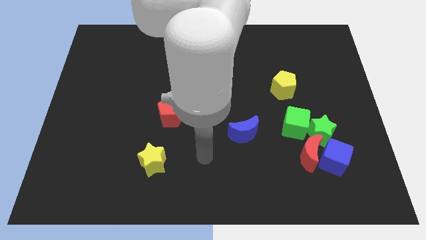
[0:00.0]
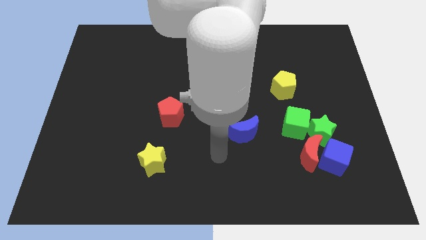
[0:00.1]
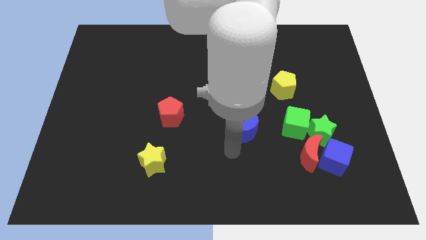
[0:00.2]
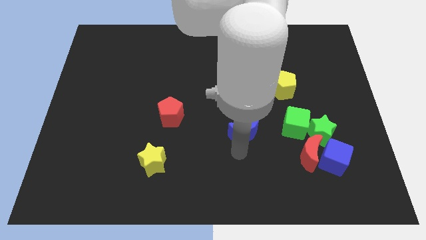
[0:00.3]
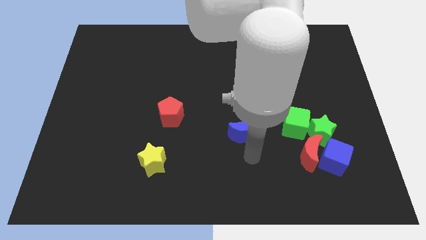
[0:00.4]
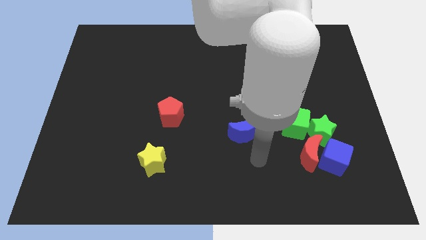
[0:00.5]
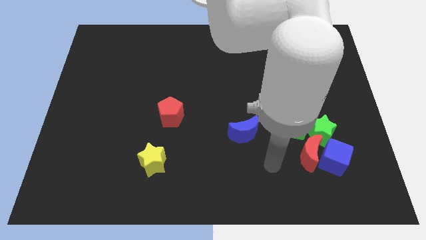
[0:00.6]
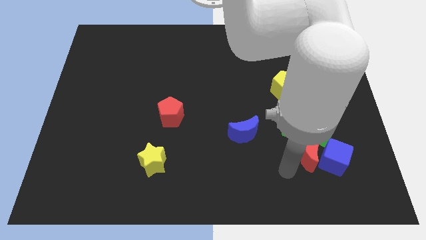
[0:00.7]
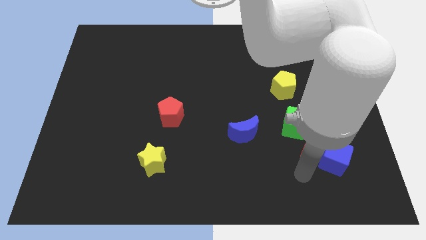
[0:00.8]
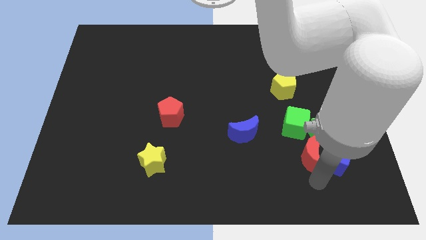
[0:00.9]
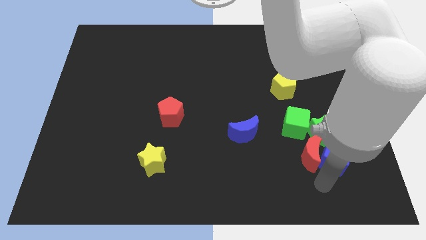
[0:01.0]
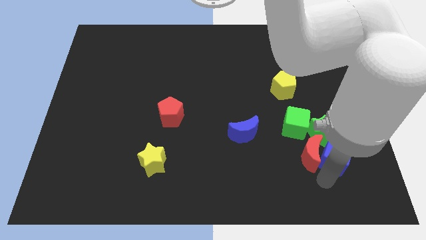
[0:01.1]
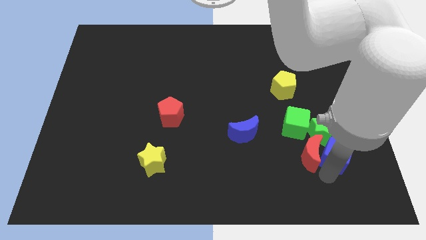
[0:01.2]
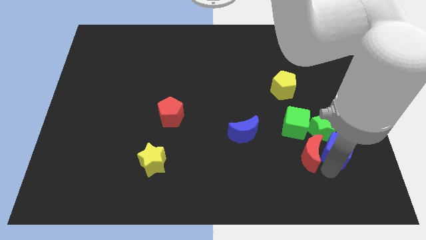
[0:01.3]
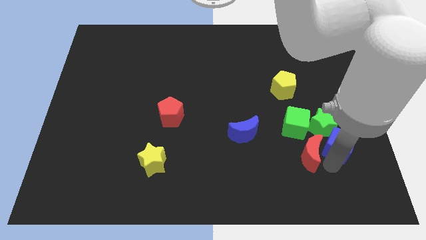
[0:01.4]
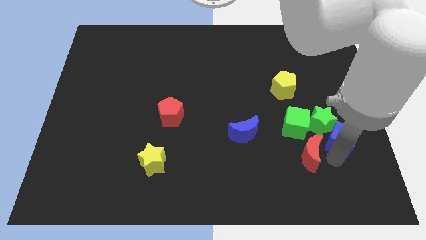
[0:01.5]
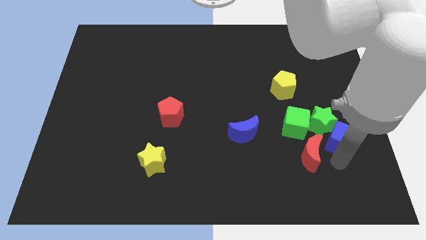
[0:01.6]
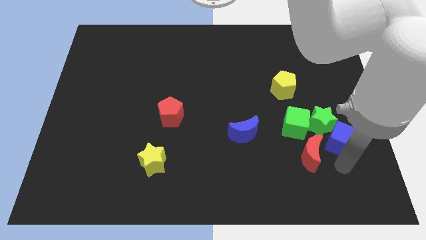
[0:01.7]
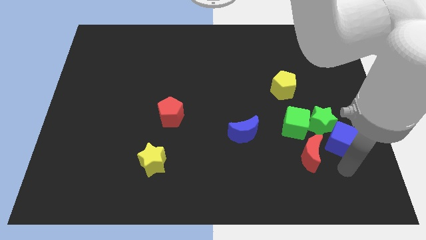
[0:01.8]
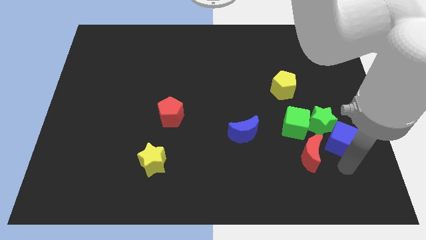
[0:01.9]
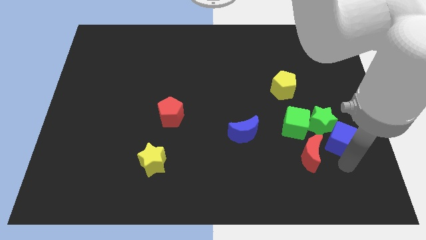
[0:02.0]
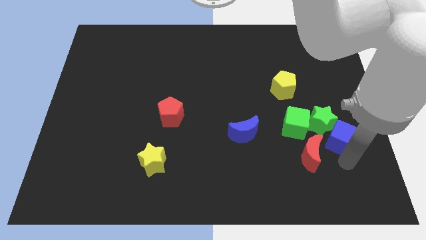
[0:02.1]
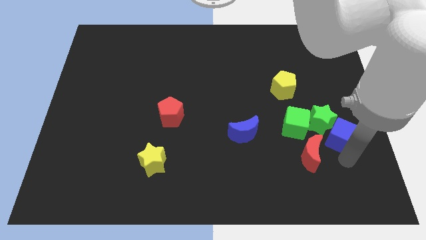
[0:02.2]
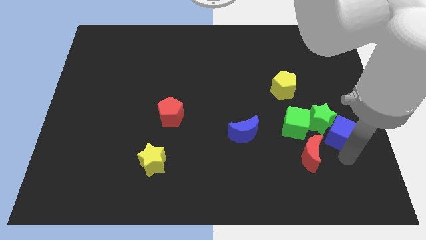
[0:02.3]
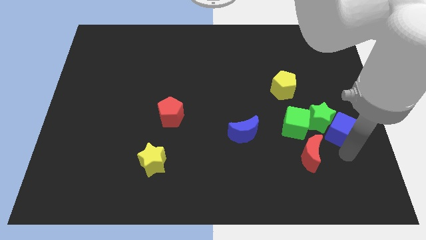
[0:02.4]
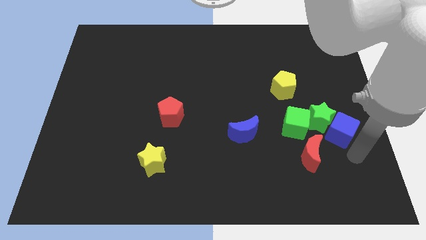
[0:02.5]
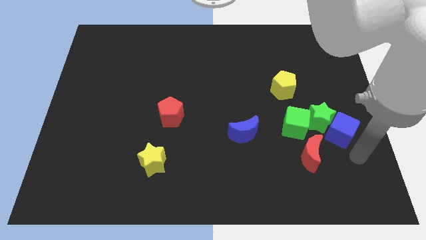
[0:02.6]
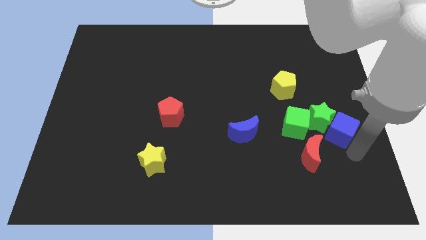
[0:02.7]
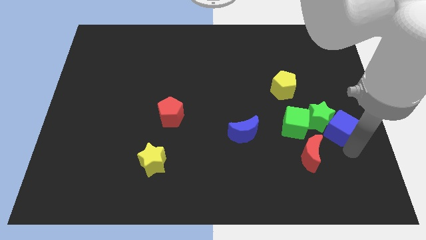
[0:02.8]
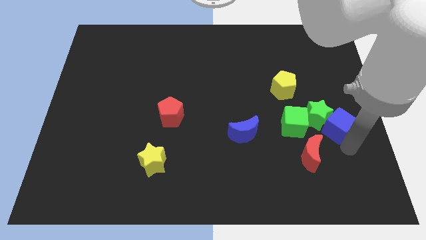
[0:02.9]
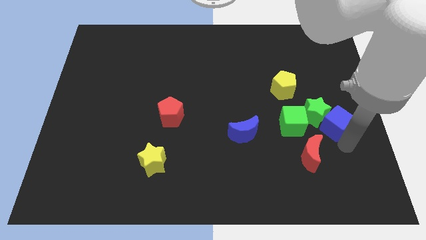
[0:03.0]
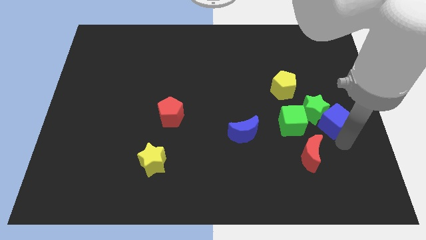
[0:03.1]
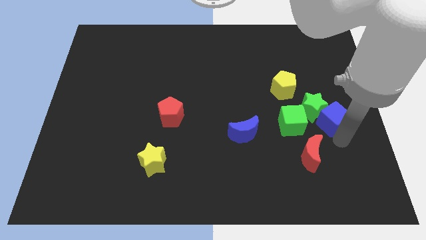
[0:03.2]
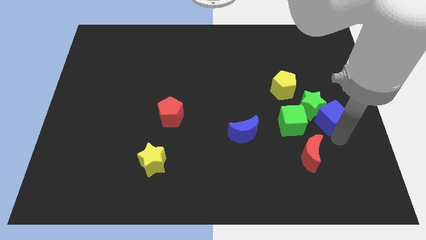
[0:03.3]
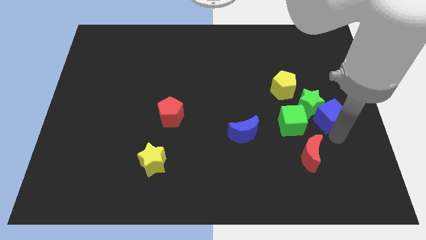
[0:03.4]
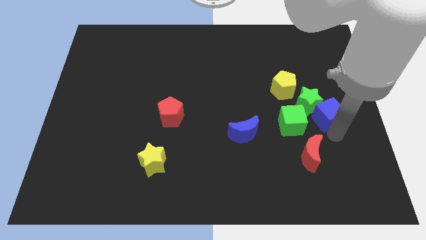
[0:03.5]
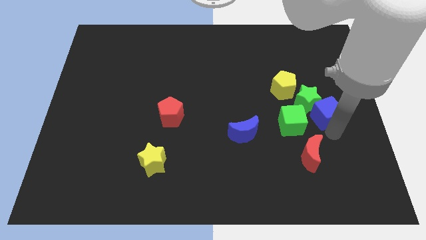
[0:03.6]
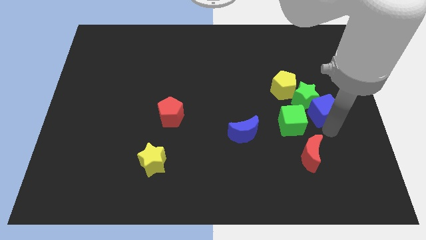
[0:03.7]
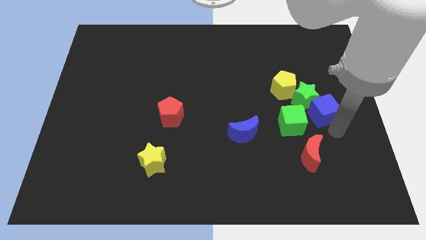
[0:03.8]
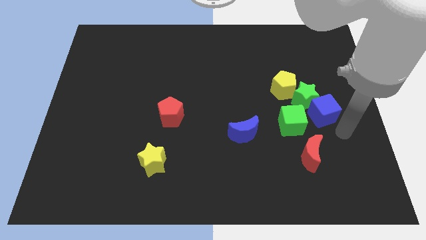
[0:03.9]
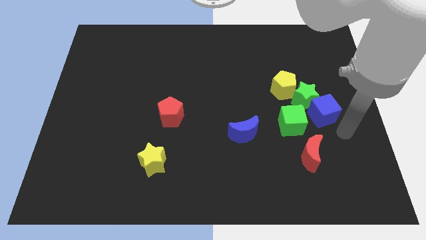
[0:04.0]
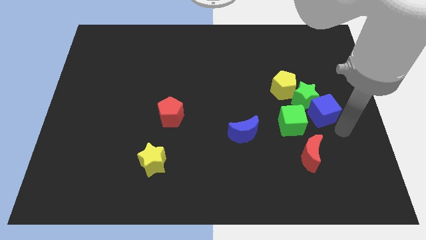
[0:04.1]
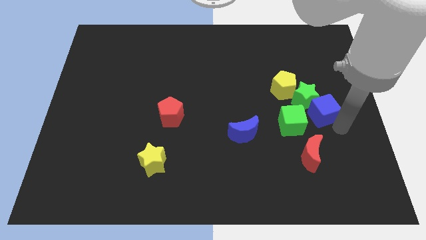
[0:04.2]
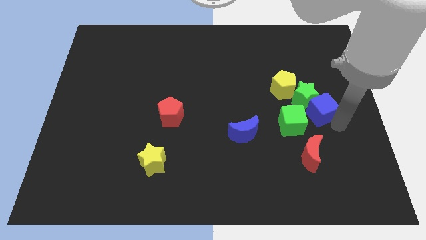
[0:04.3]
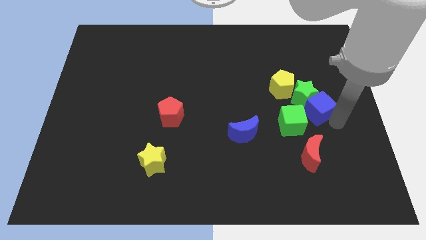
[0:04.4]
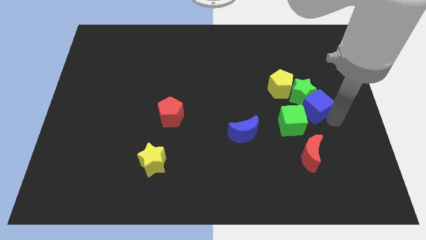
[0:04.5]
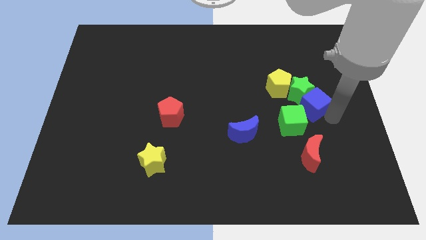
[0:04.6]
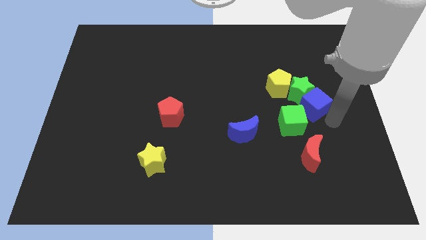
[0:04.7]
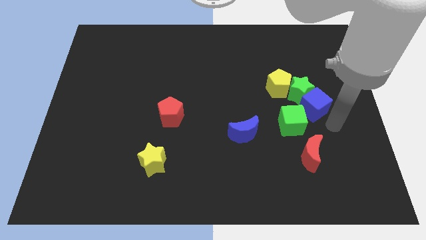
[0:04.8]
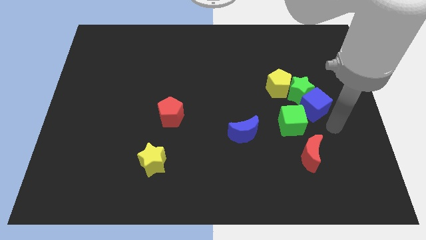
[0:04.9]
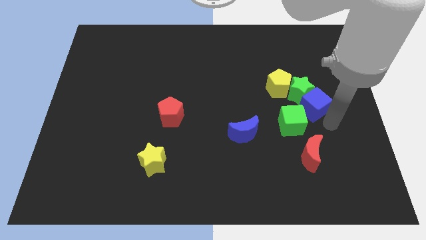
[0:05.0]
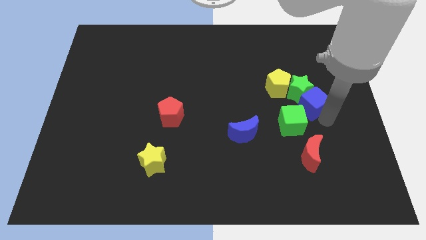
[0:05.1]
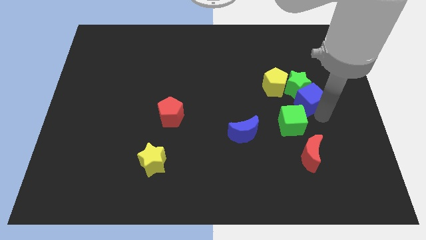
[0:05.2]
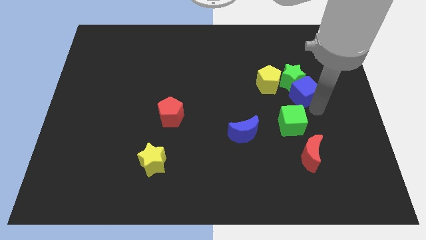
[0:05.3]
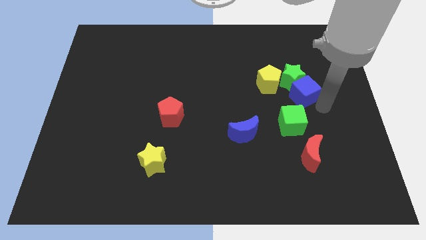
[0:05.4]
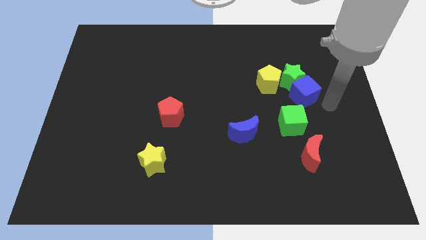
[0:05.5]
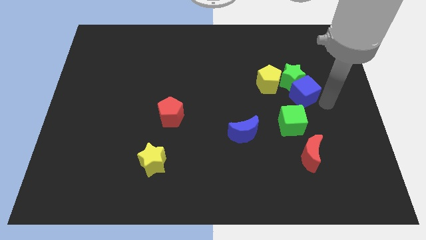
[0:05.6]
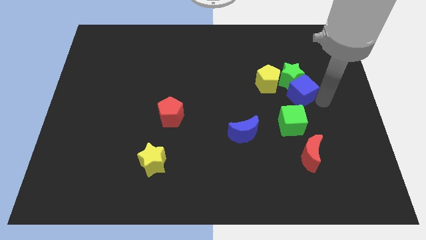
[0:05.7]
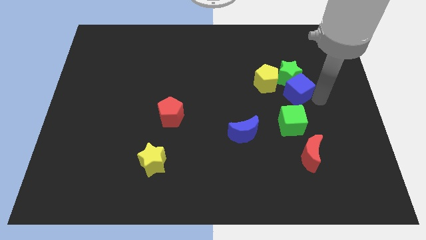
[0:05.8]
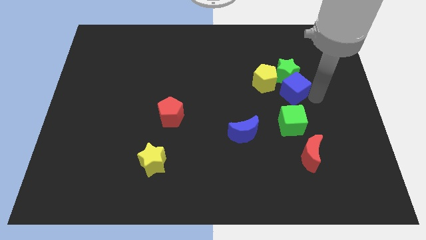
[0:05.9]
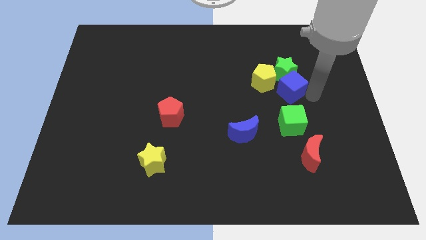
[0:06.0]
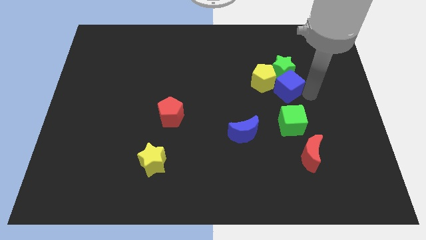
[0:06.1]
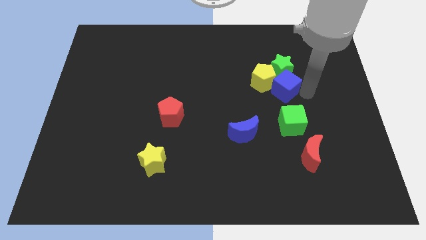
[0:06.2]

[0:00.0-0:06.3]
move the blue cube close to the yellow pentagon

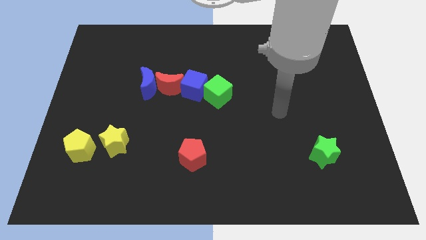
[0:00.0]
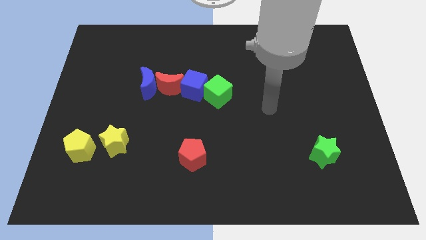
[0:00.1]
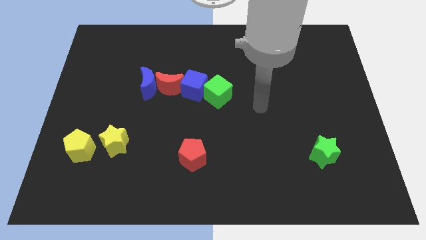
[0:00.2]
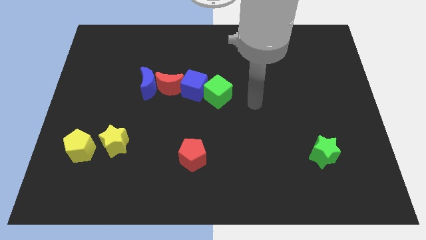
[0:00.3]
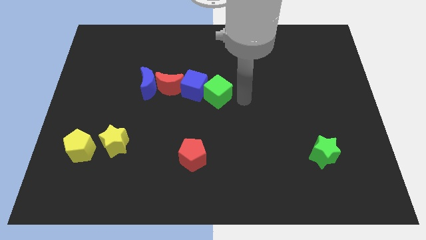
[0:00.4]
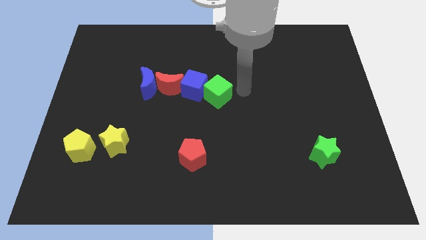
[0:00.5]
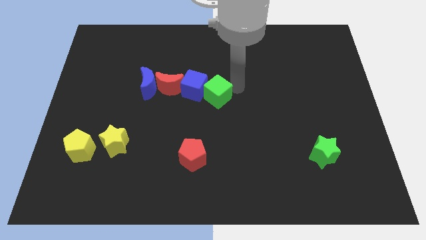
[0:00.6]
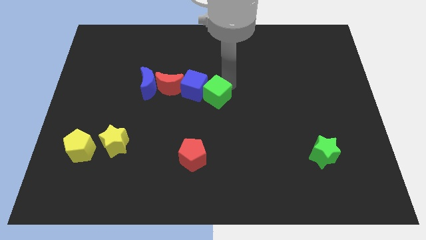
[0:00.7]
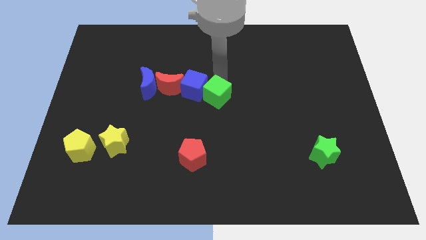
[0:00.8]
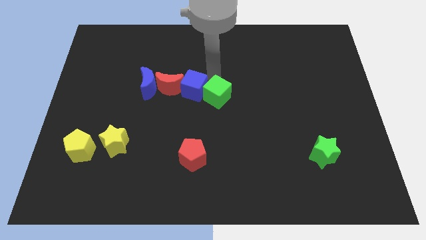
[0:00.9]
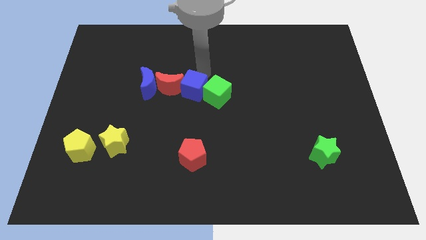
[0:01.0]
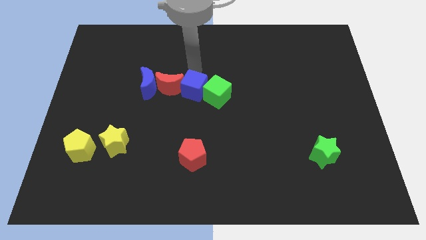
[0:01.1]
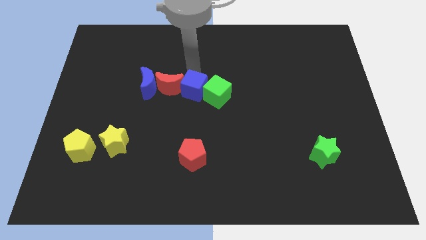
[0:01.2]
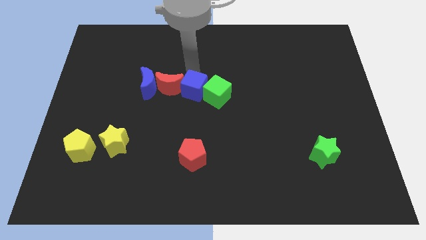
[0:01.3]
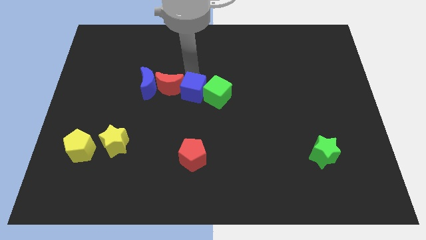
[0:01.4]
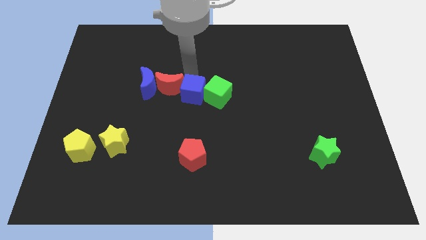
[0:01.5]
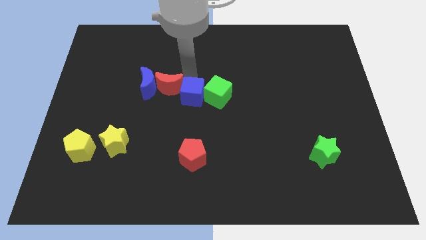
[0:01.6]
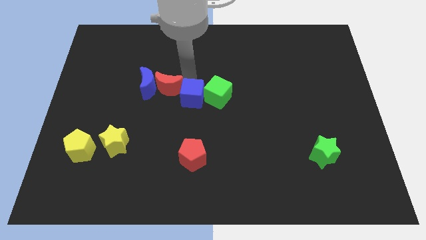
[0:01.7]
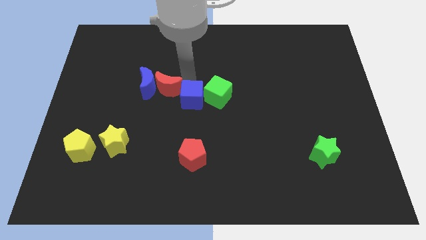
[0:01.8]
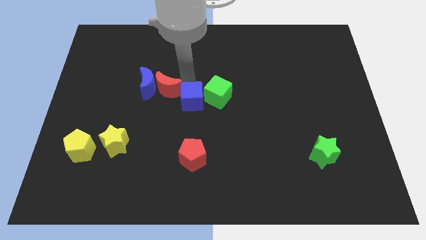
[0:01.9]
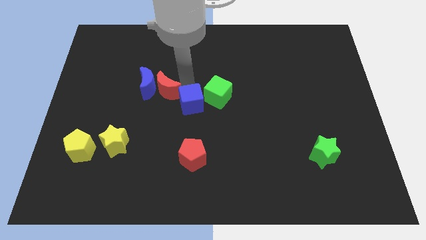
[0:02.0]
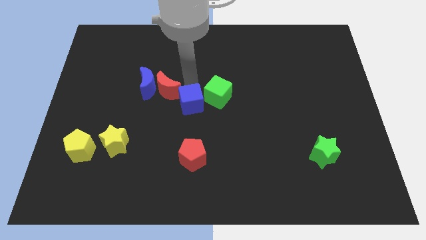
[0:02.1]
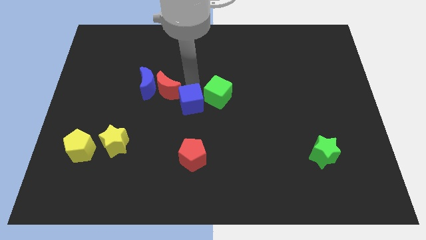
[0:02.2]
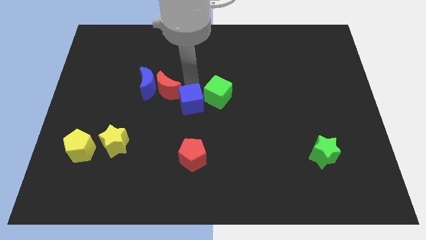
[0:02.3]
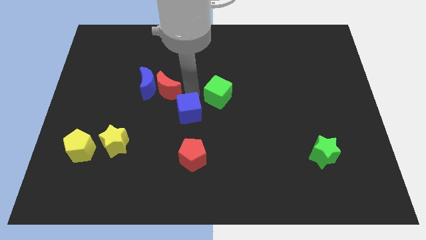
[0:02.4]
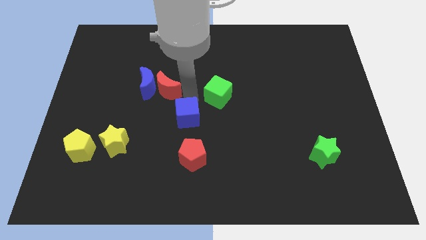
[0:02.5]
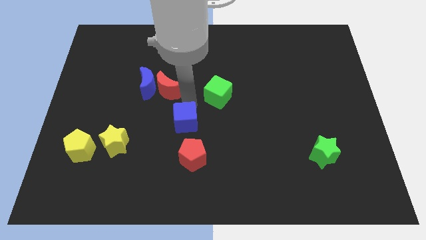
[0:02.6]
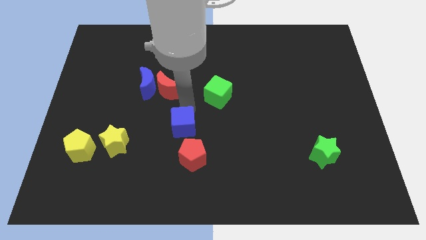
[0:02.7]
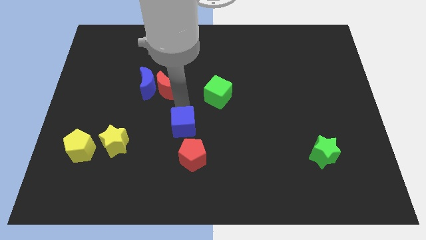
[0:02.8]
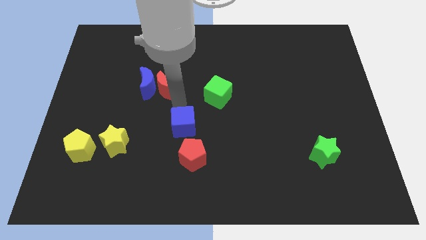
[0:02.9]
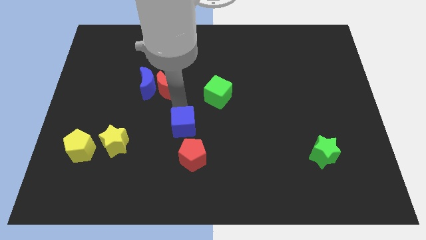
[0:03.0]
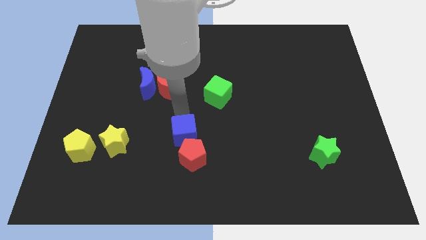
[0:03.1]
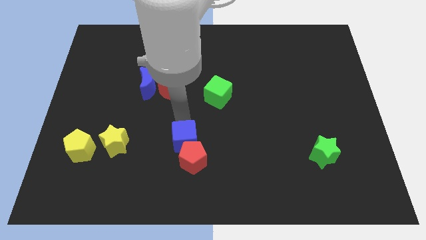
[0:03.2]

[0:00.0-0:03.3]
slide the blue cube towards the red pentagon
